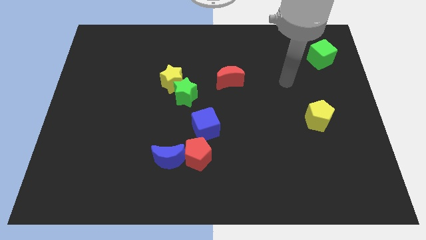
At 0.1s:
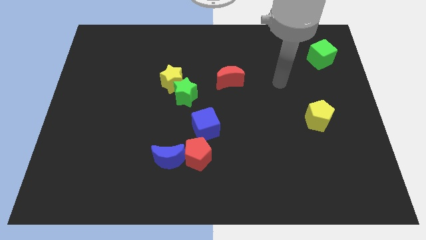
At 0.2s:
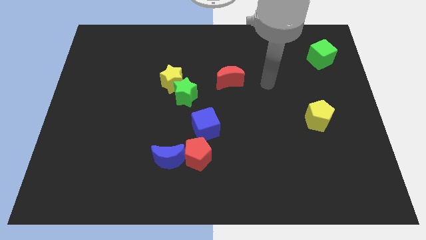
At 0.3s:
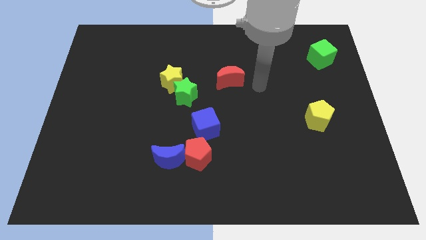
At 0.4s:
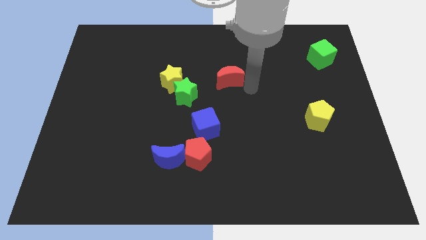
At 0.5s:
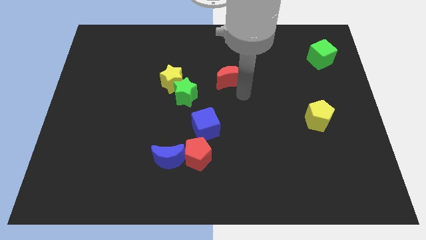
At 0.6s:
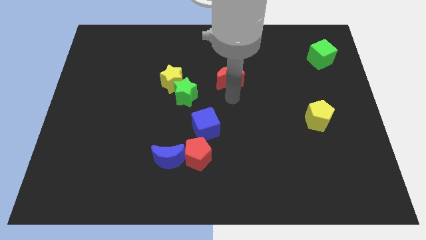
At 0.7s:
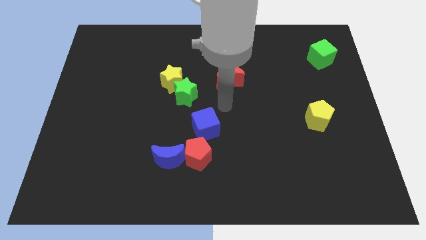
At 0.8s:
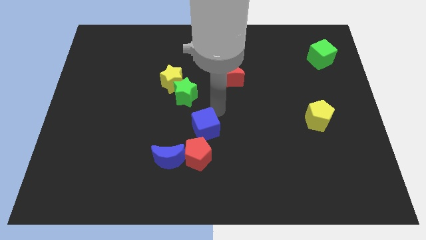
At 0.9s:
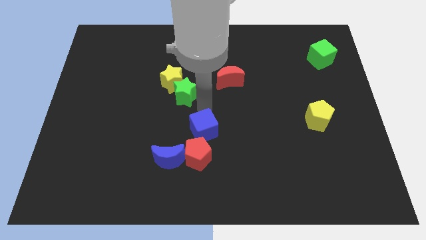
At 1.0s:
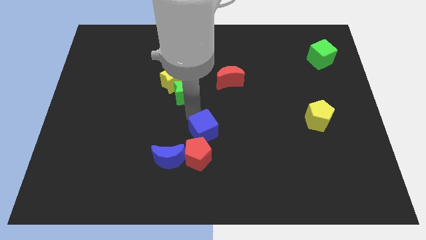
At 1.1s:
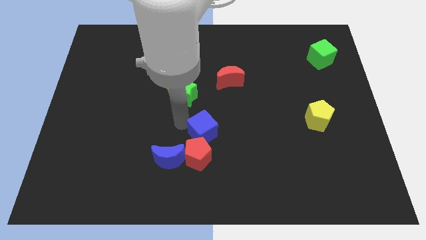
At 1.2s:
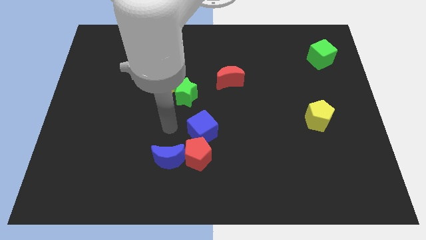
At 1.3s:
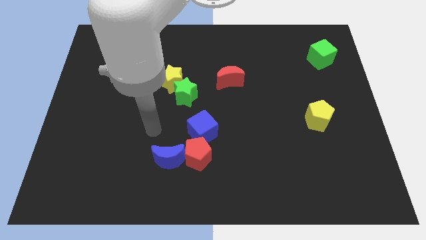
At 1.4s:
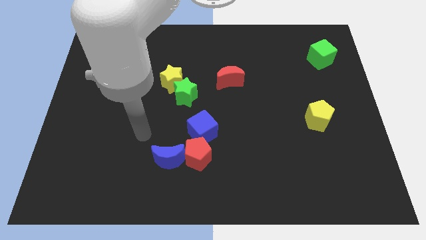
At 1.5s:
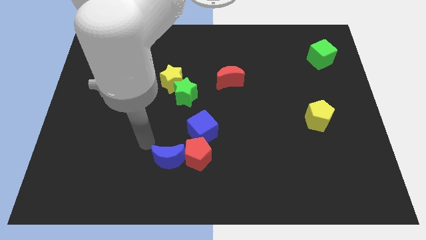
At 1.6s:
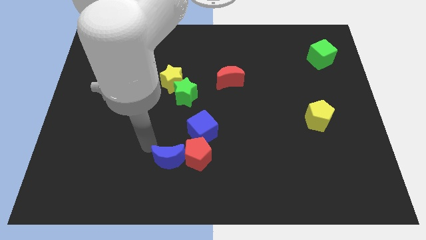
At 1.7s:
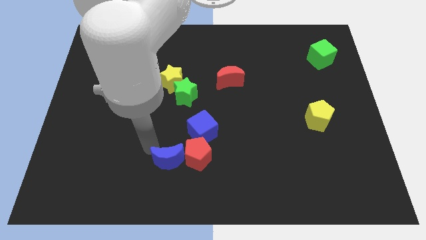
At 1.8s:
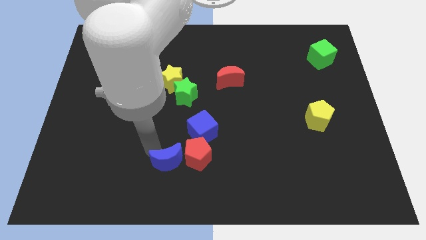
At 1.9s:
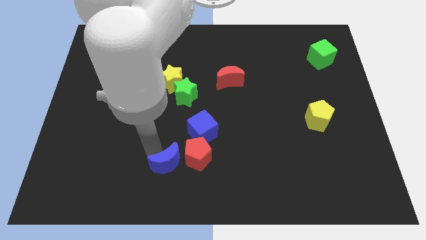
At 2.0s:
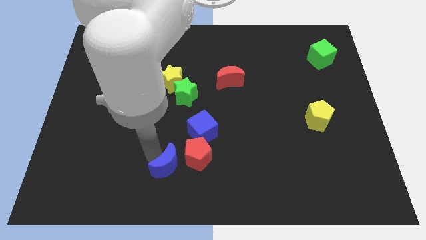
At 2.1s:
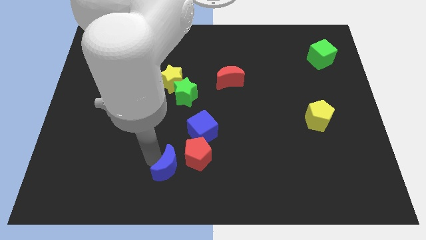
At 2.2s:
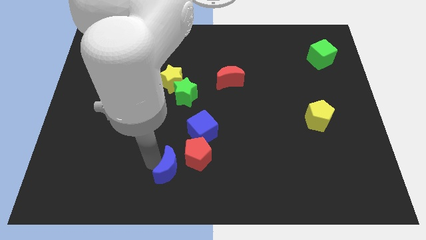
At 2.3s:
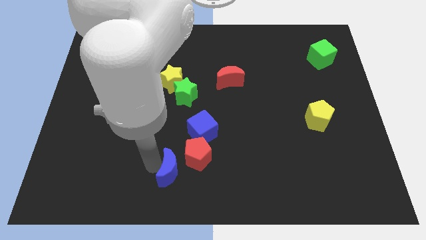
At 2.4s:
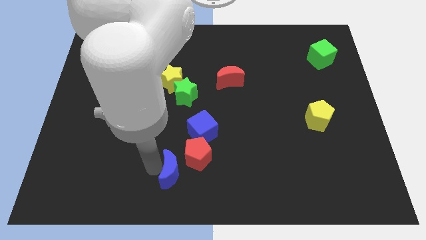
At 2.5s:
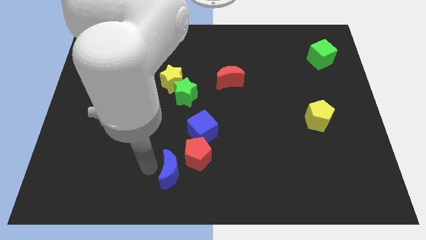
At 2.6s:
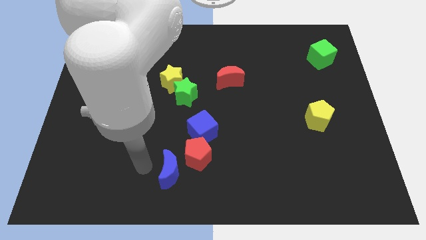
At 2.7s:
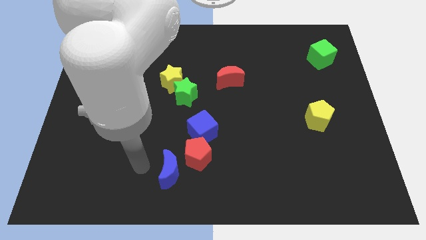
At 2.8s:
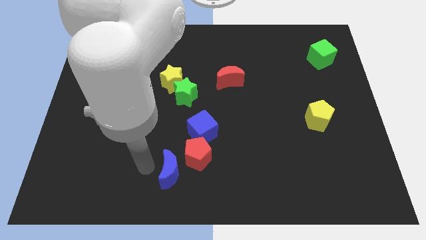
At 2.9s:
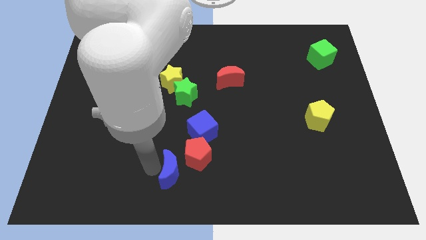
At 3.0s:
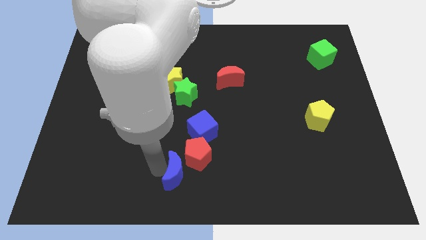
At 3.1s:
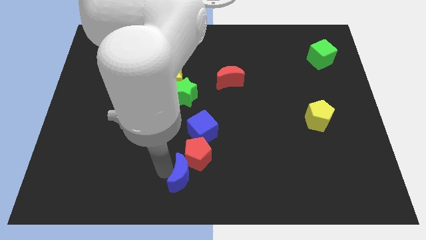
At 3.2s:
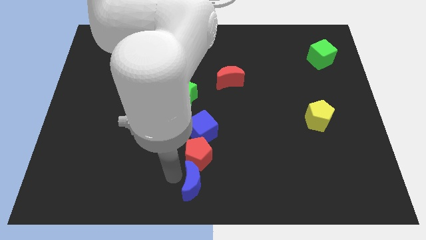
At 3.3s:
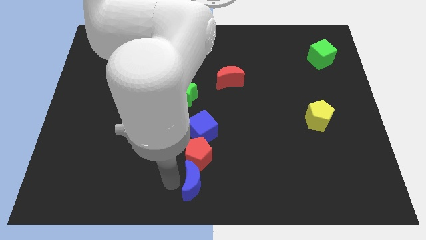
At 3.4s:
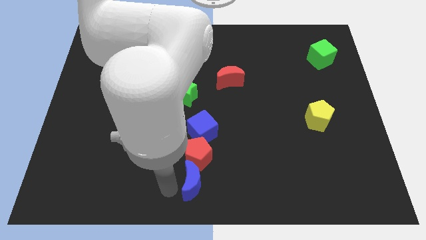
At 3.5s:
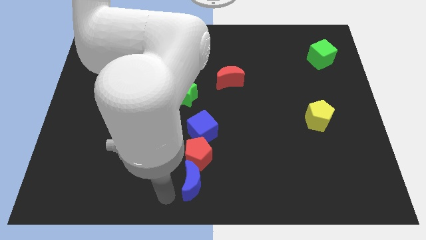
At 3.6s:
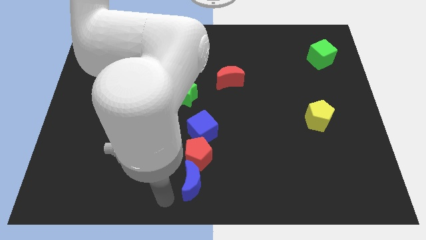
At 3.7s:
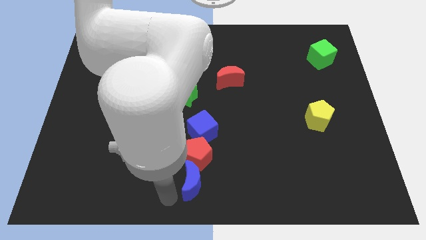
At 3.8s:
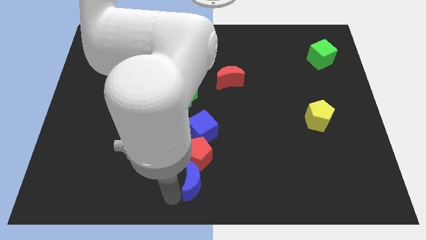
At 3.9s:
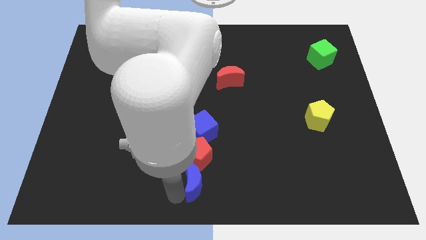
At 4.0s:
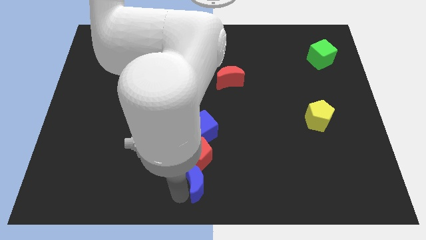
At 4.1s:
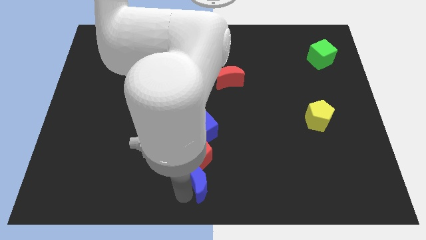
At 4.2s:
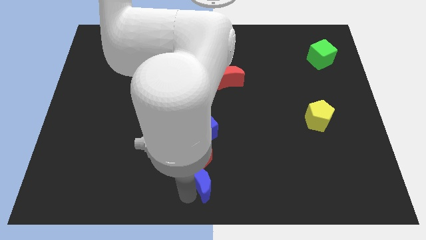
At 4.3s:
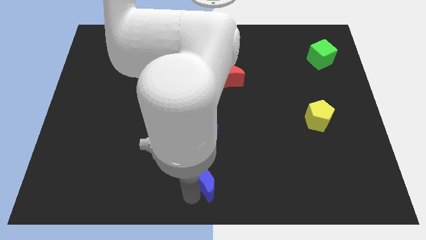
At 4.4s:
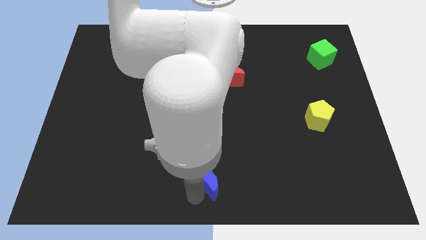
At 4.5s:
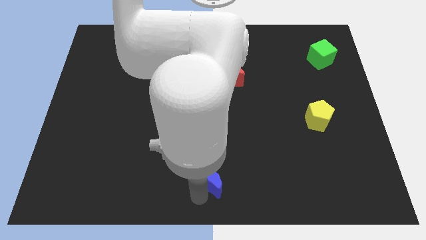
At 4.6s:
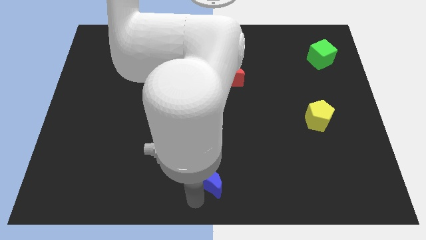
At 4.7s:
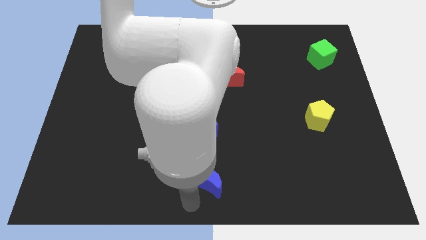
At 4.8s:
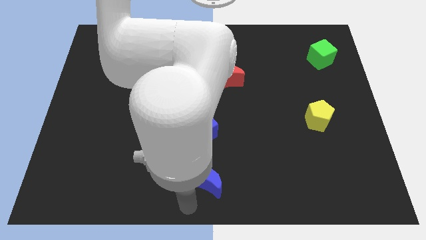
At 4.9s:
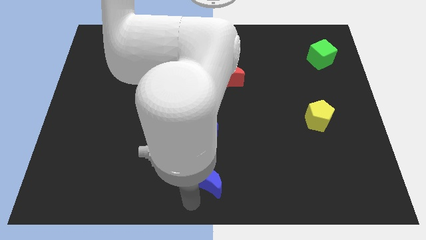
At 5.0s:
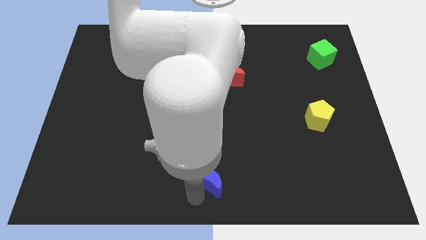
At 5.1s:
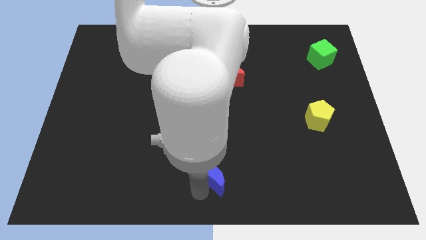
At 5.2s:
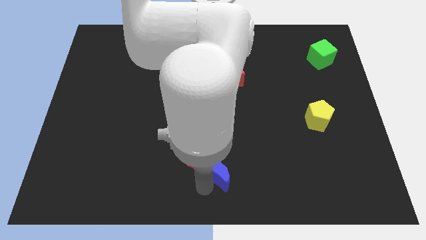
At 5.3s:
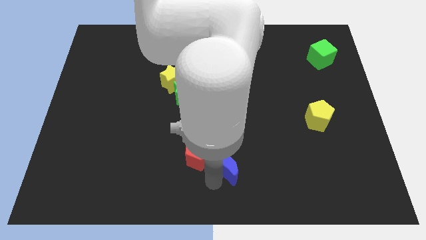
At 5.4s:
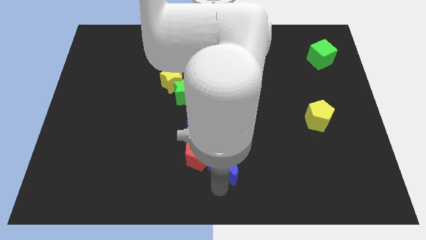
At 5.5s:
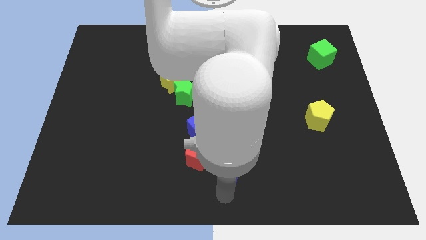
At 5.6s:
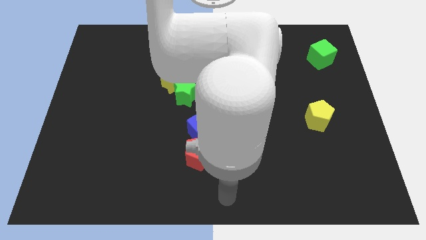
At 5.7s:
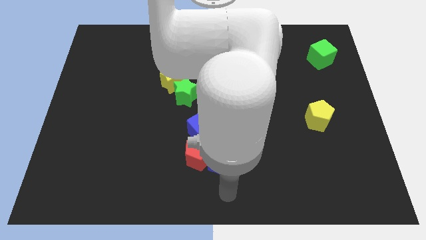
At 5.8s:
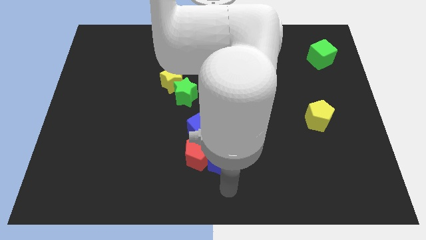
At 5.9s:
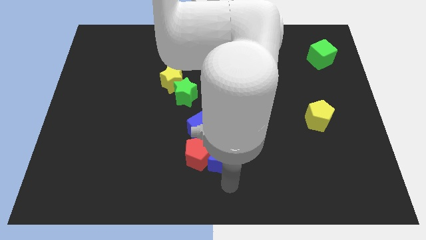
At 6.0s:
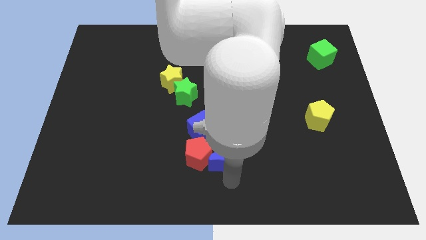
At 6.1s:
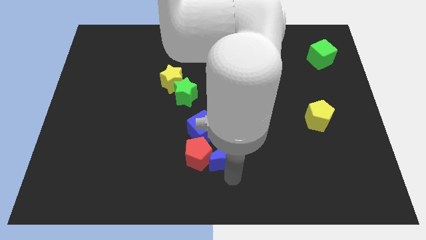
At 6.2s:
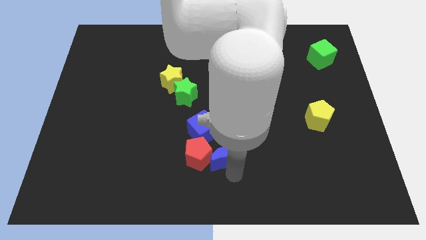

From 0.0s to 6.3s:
slide the blue moon to the top right of the red pentagon

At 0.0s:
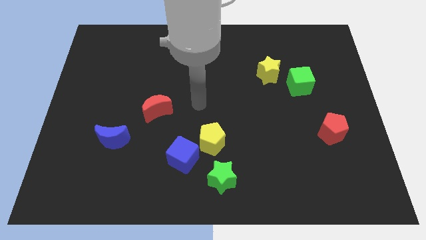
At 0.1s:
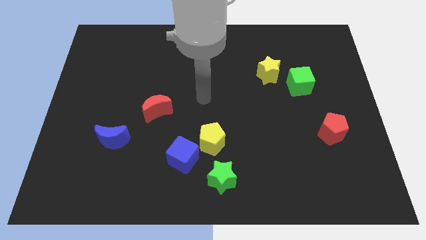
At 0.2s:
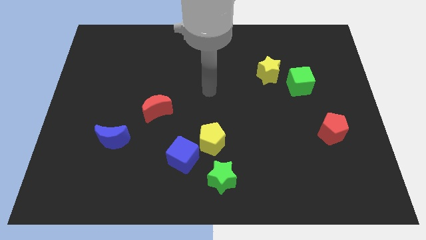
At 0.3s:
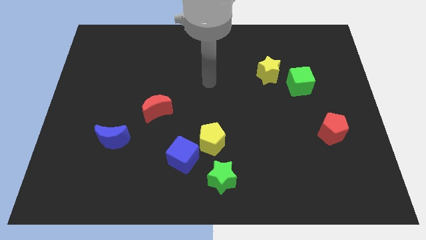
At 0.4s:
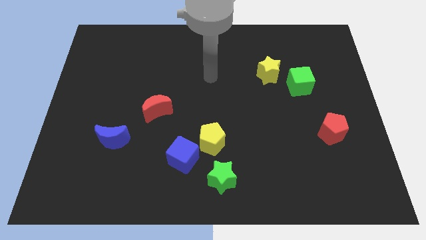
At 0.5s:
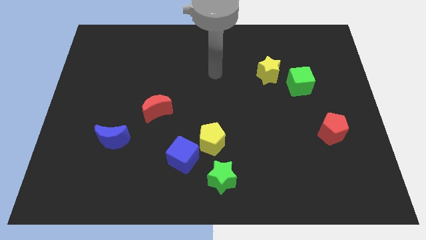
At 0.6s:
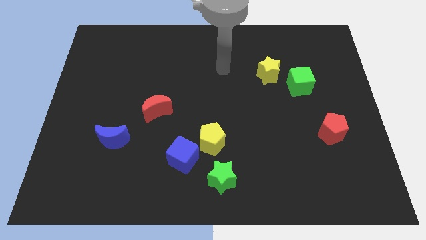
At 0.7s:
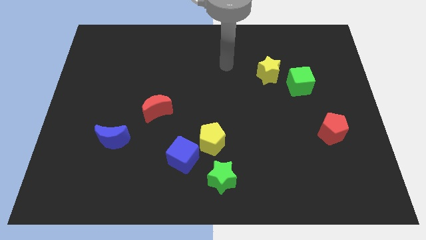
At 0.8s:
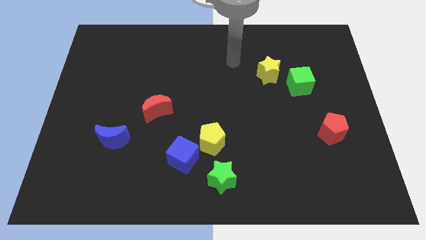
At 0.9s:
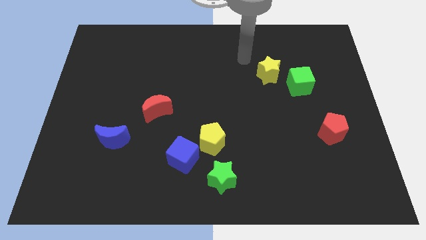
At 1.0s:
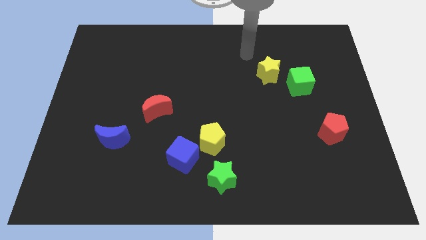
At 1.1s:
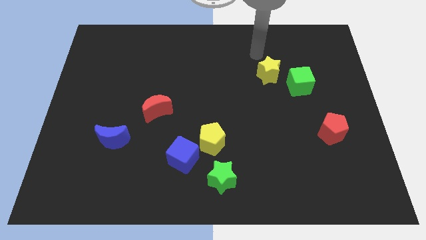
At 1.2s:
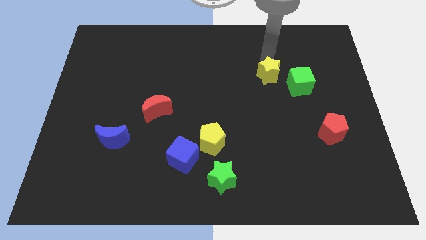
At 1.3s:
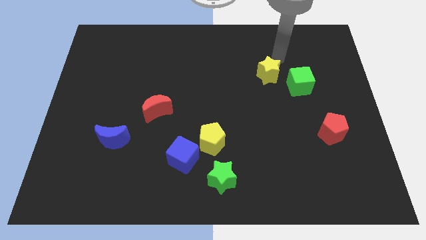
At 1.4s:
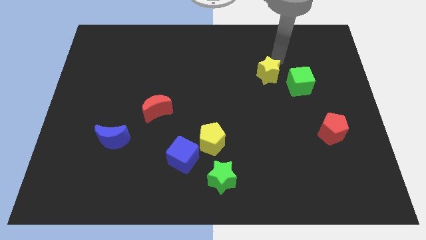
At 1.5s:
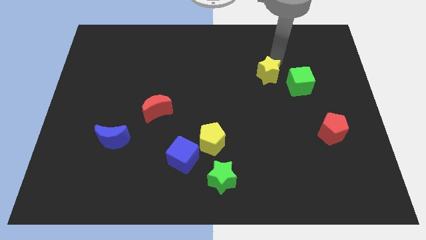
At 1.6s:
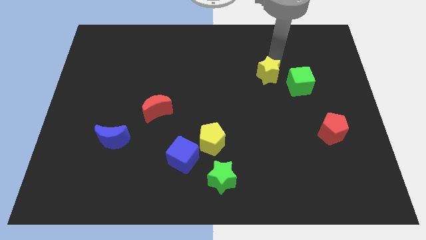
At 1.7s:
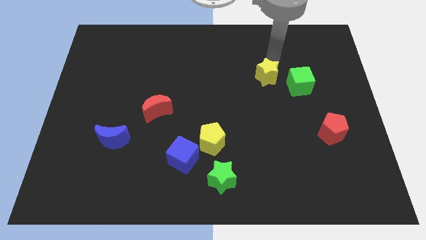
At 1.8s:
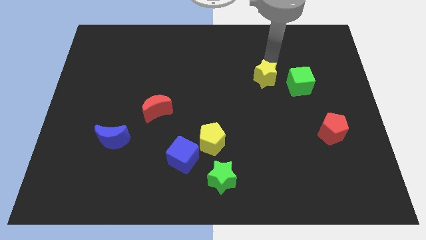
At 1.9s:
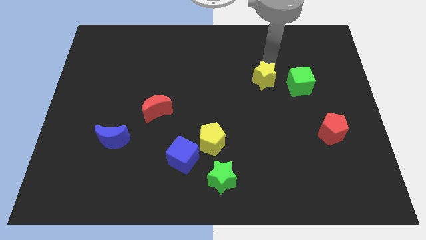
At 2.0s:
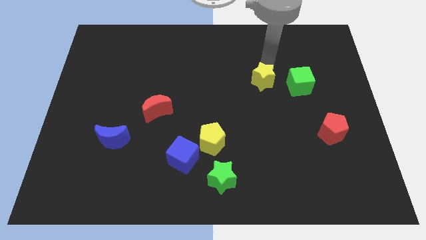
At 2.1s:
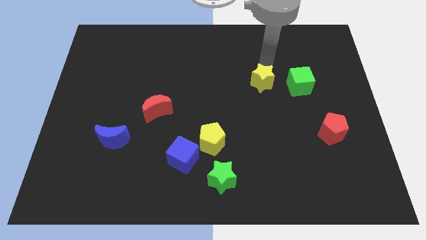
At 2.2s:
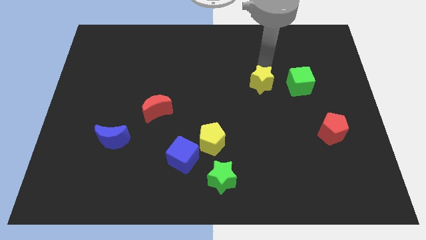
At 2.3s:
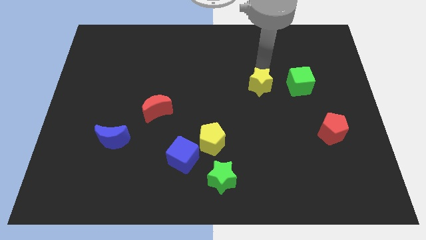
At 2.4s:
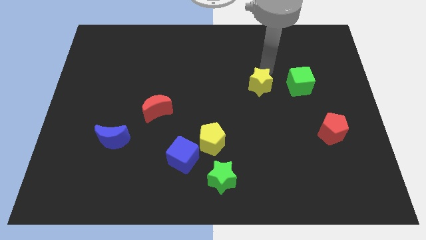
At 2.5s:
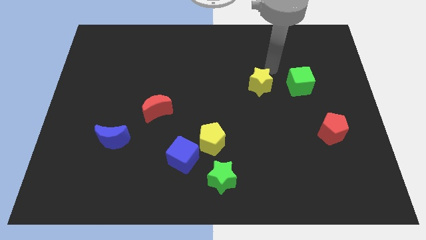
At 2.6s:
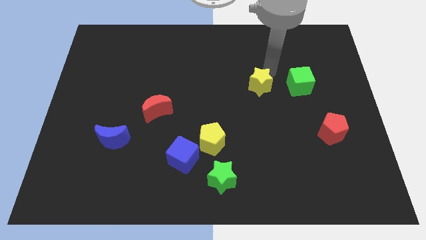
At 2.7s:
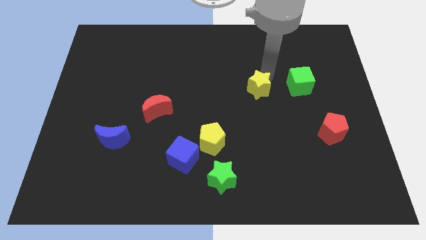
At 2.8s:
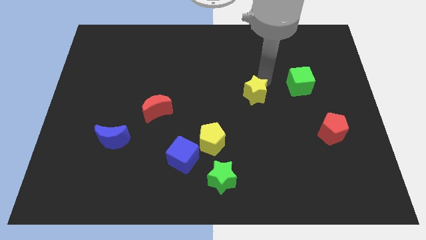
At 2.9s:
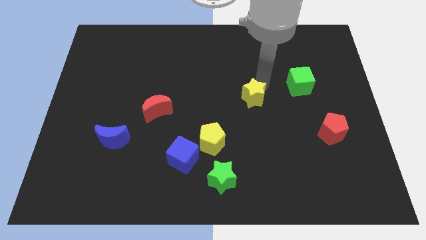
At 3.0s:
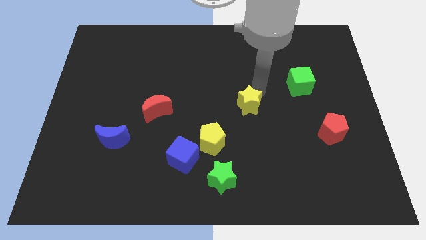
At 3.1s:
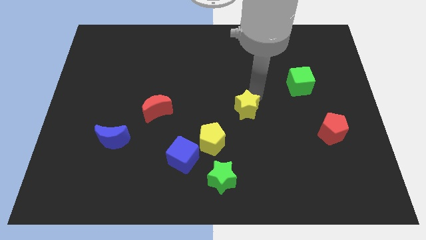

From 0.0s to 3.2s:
put the yellow star to the top right side of the yellow pentagon
